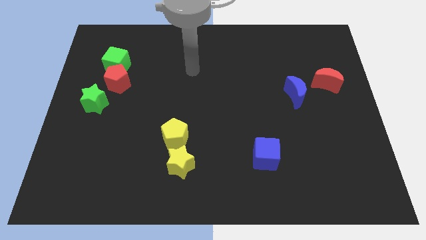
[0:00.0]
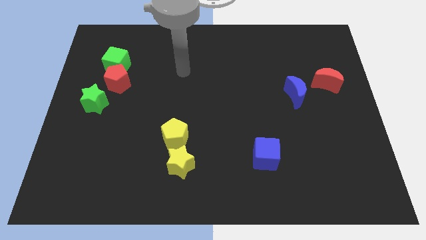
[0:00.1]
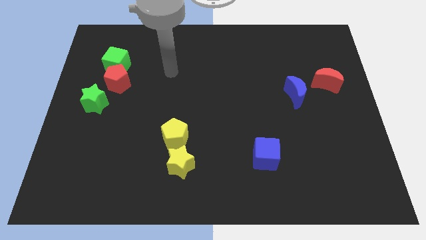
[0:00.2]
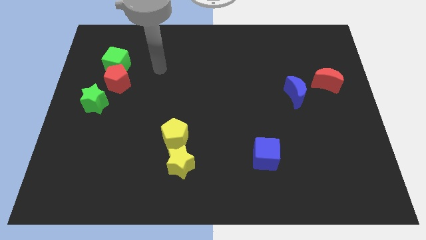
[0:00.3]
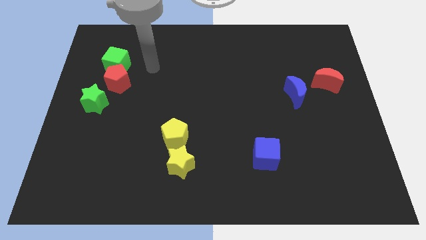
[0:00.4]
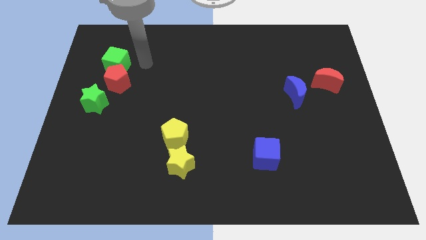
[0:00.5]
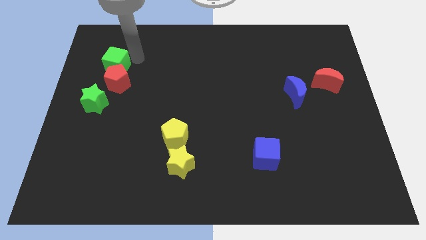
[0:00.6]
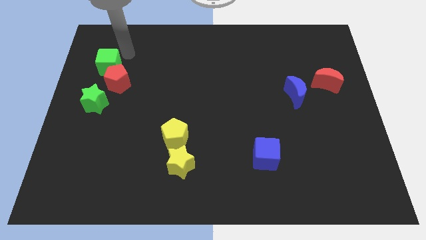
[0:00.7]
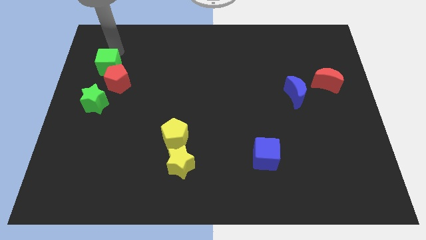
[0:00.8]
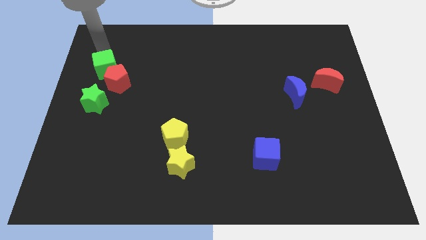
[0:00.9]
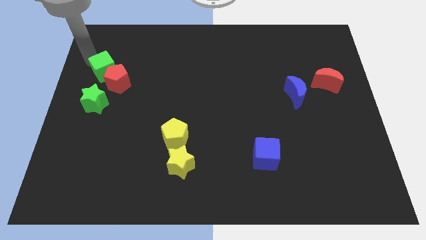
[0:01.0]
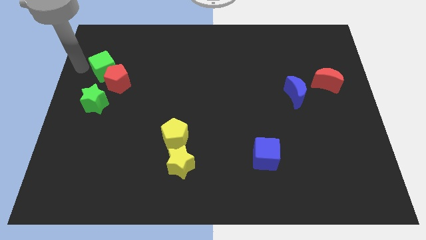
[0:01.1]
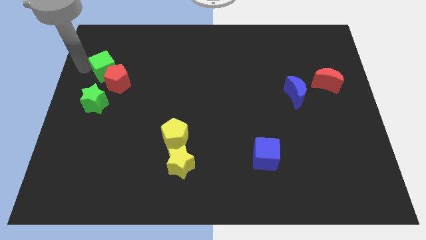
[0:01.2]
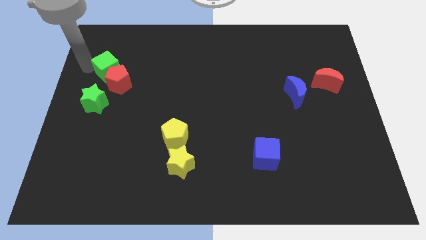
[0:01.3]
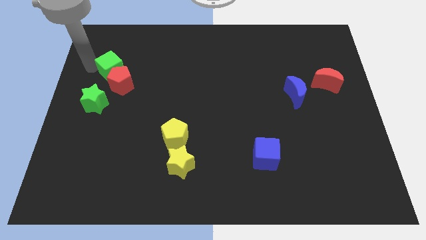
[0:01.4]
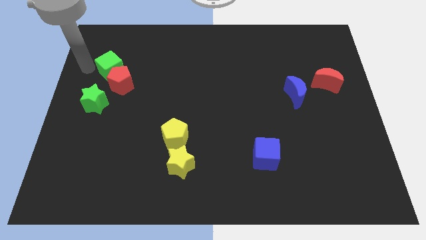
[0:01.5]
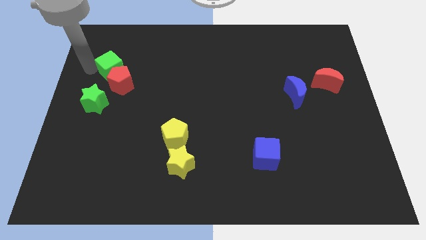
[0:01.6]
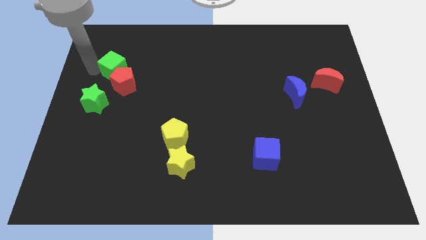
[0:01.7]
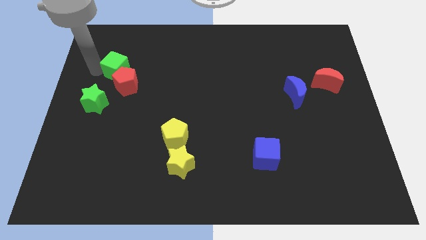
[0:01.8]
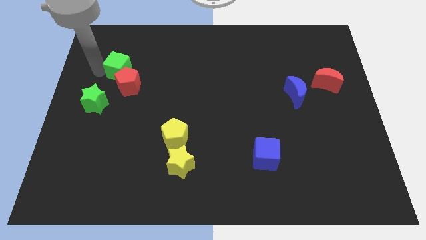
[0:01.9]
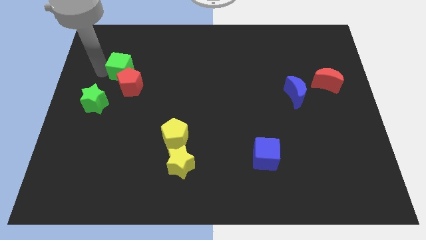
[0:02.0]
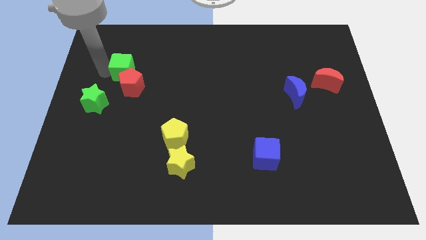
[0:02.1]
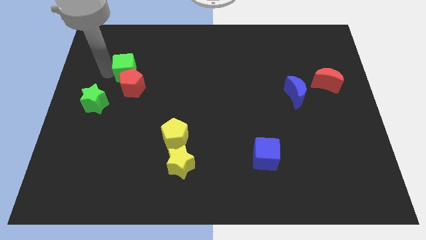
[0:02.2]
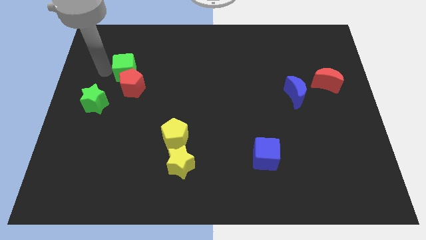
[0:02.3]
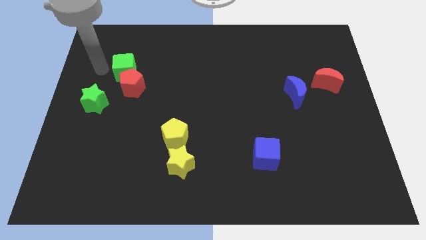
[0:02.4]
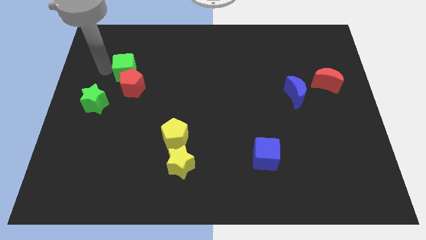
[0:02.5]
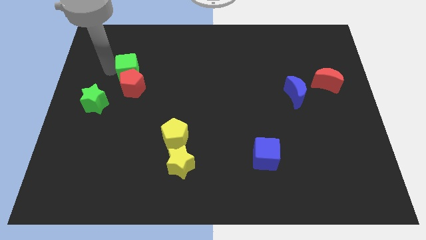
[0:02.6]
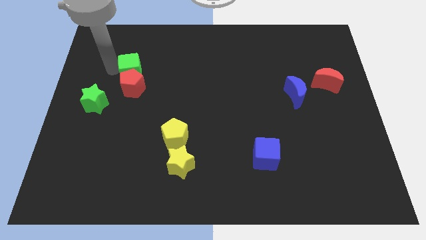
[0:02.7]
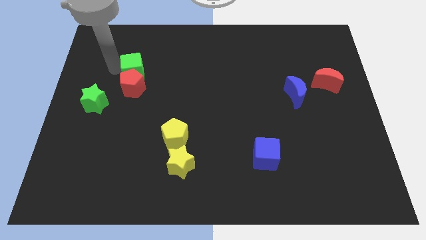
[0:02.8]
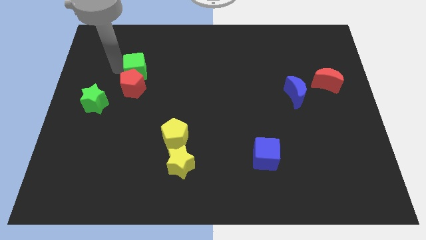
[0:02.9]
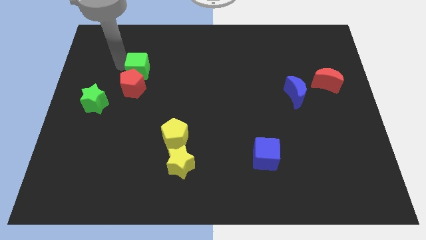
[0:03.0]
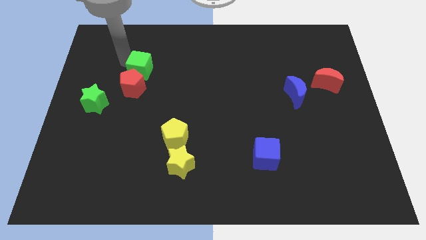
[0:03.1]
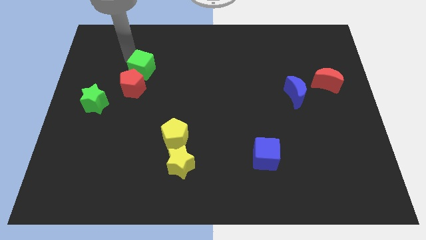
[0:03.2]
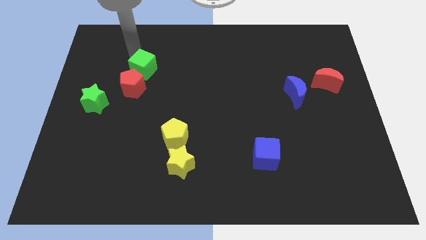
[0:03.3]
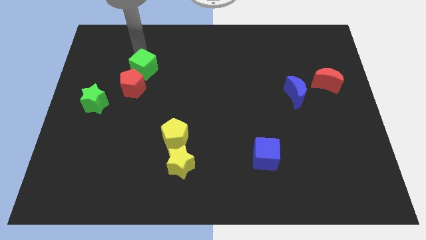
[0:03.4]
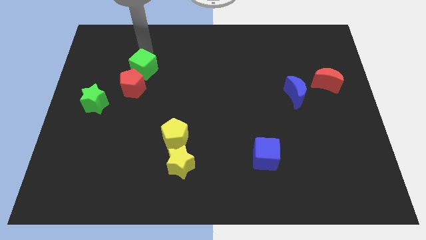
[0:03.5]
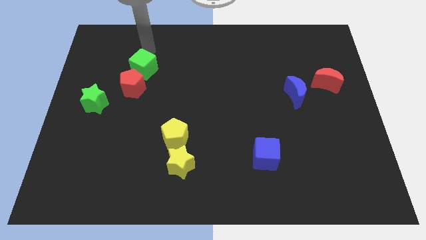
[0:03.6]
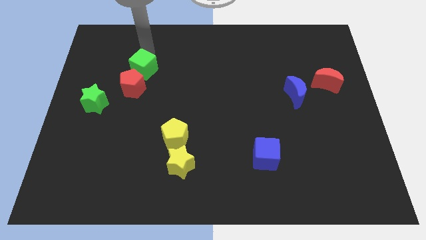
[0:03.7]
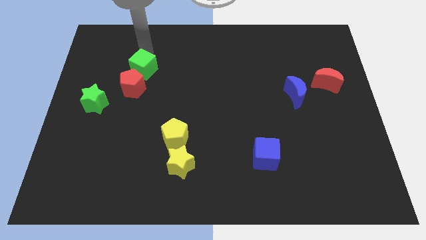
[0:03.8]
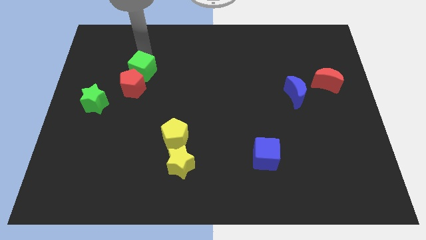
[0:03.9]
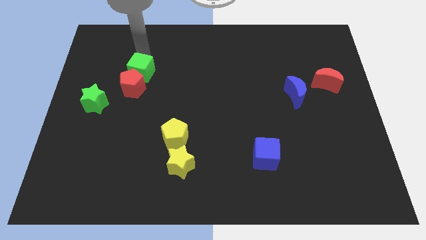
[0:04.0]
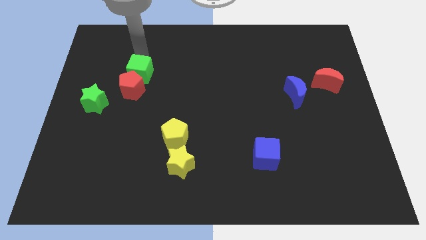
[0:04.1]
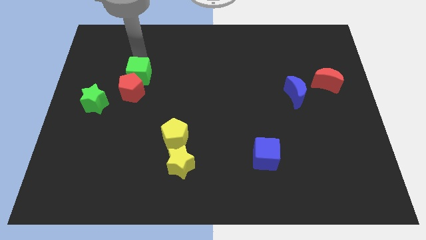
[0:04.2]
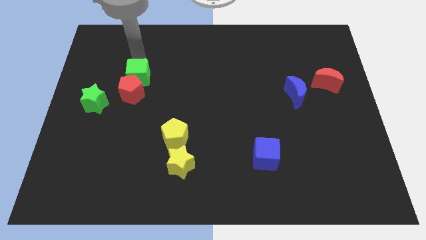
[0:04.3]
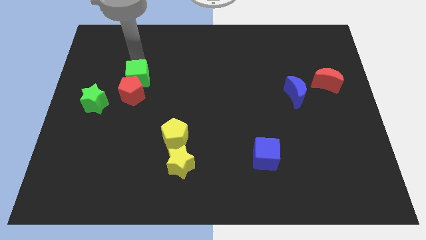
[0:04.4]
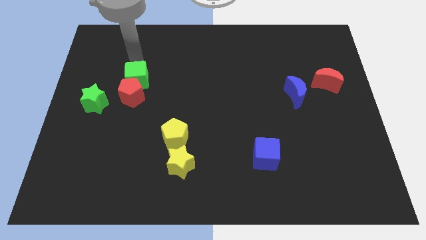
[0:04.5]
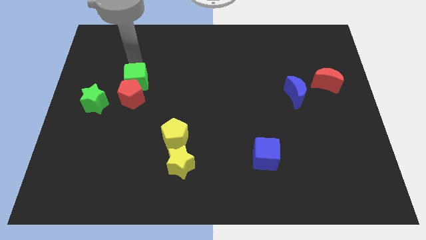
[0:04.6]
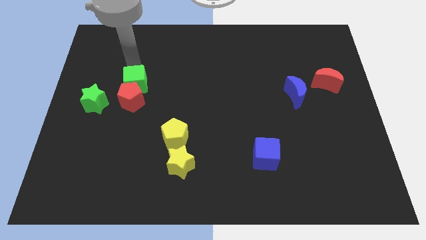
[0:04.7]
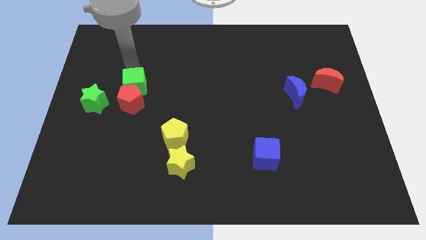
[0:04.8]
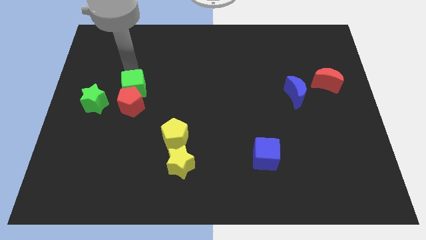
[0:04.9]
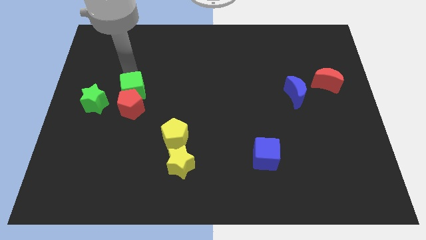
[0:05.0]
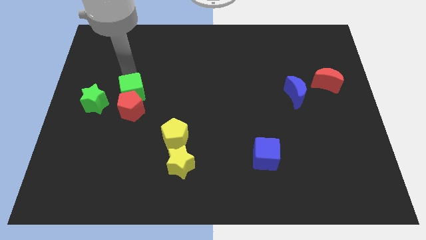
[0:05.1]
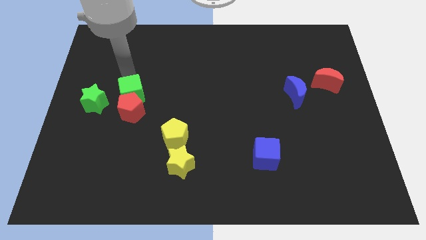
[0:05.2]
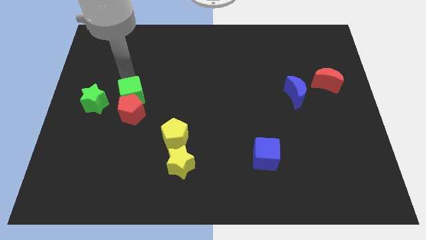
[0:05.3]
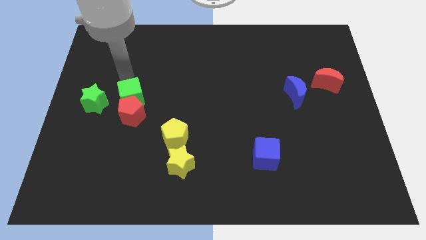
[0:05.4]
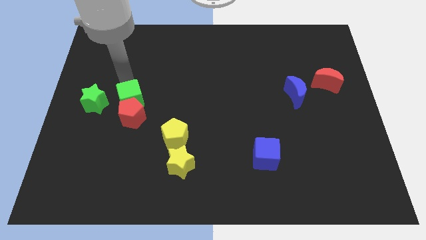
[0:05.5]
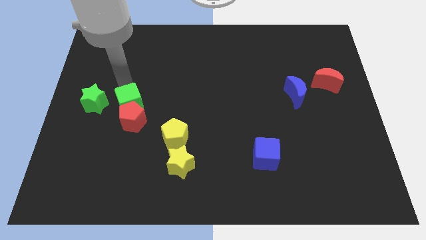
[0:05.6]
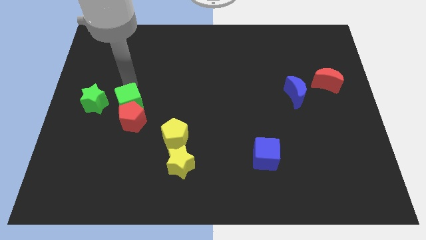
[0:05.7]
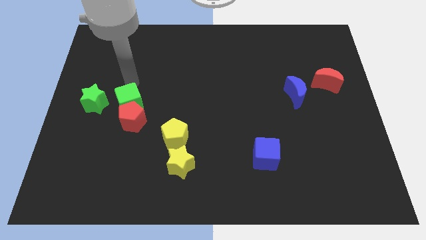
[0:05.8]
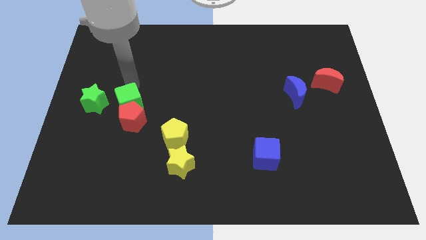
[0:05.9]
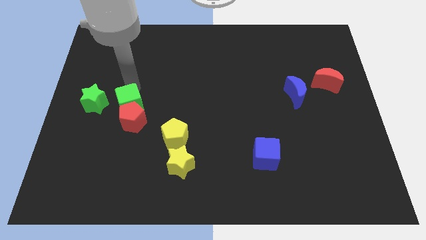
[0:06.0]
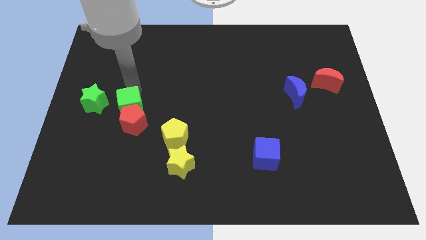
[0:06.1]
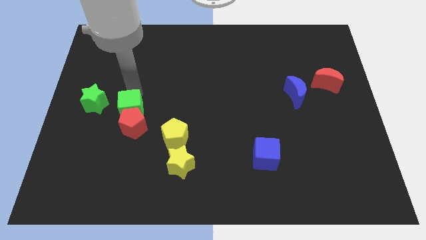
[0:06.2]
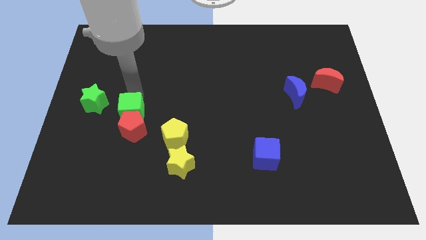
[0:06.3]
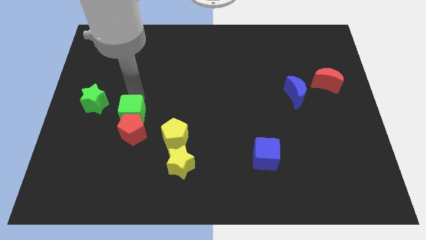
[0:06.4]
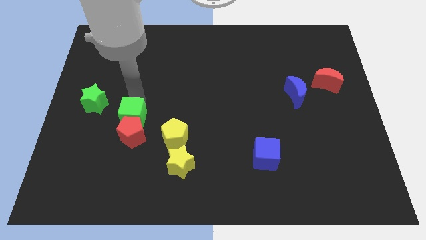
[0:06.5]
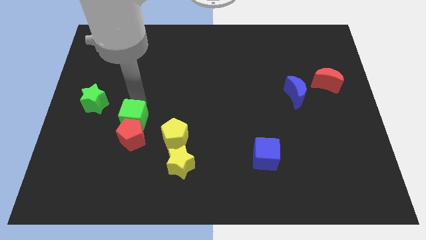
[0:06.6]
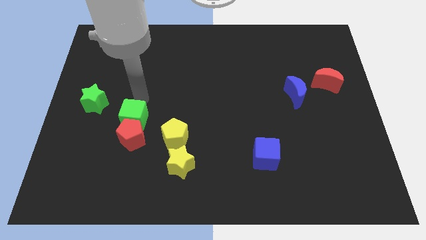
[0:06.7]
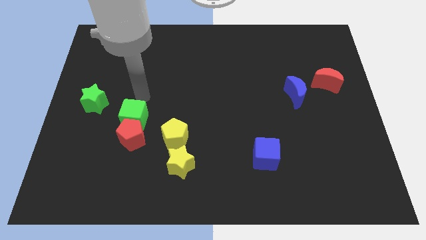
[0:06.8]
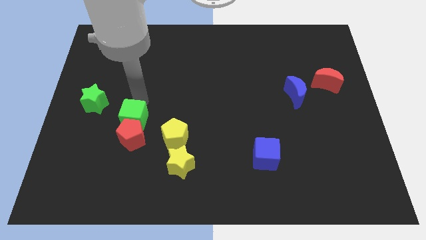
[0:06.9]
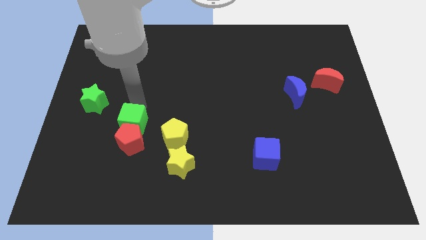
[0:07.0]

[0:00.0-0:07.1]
move the green cube to the left side of the yellow pentagon
